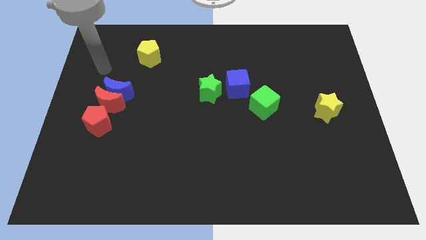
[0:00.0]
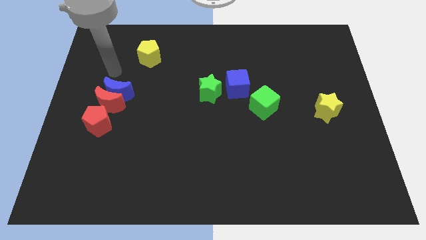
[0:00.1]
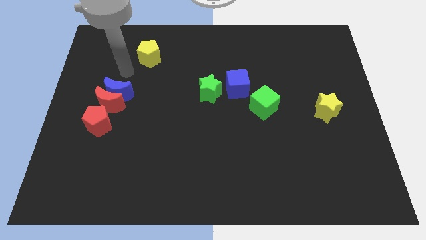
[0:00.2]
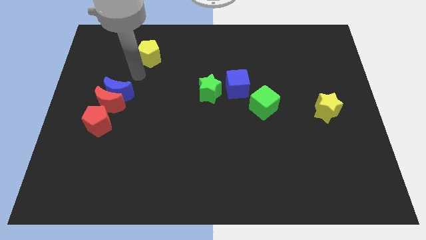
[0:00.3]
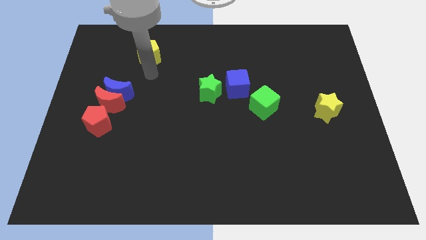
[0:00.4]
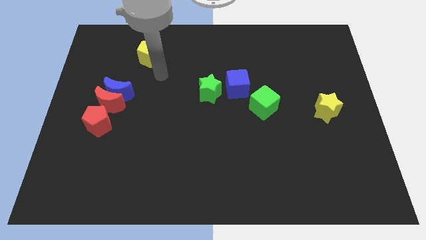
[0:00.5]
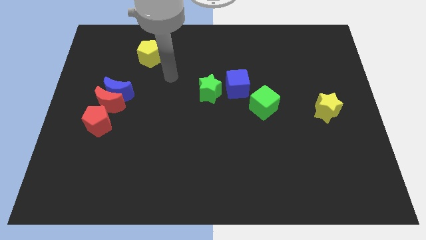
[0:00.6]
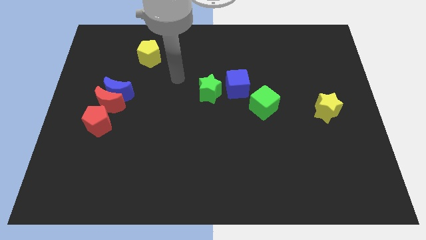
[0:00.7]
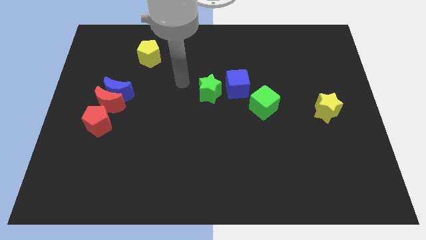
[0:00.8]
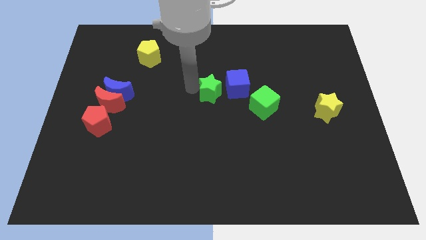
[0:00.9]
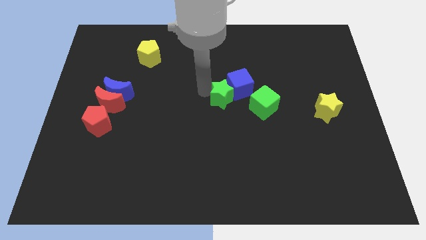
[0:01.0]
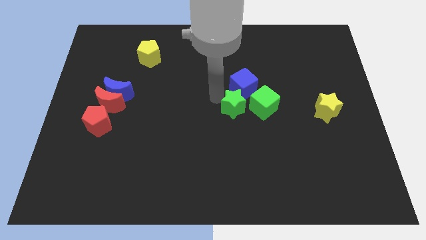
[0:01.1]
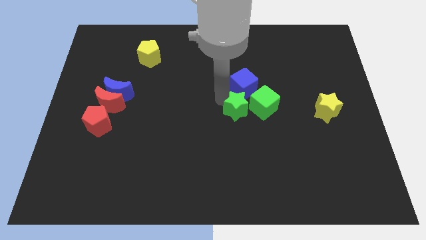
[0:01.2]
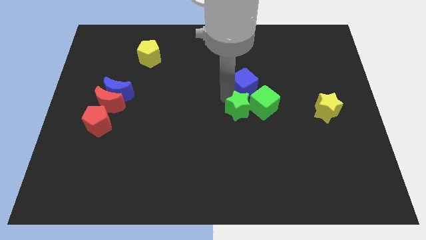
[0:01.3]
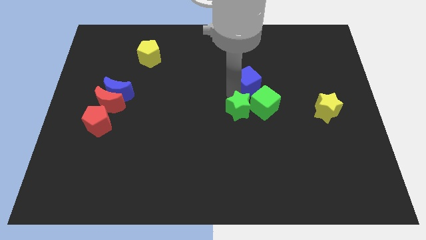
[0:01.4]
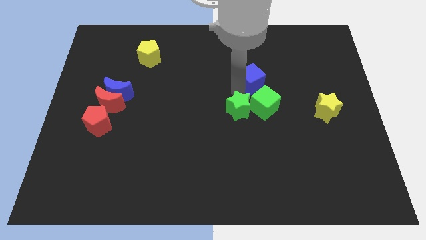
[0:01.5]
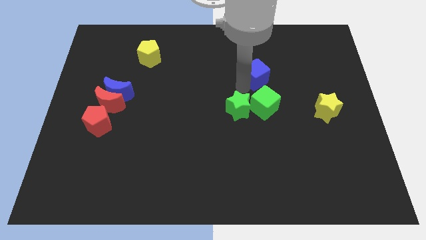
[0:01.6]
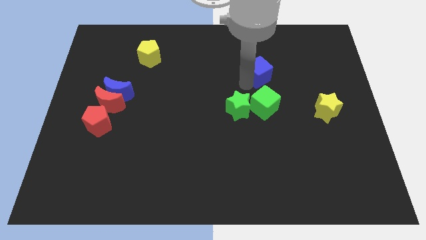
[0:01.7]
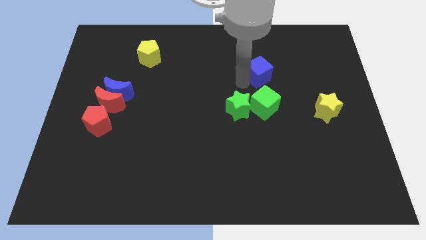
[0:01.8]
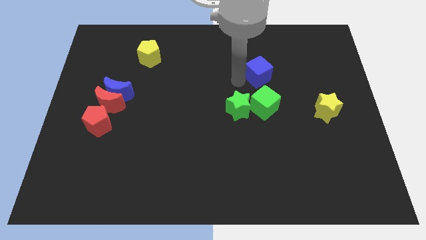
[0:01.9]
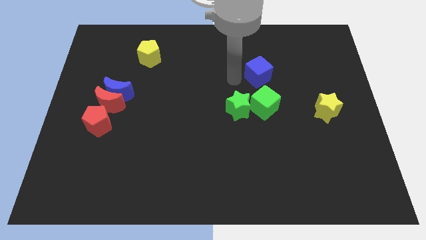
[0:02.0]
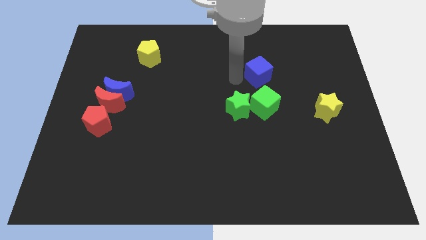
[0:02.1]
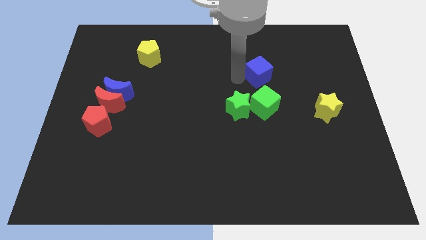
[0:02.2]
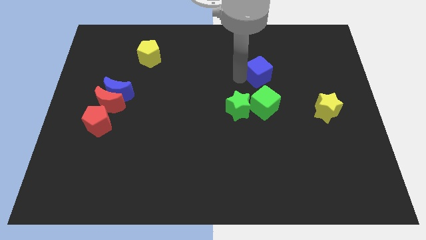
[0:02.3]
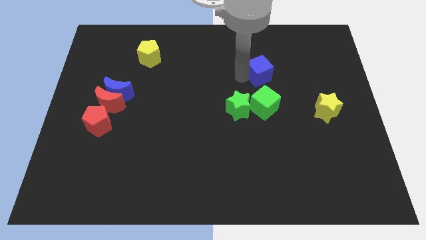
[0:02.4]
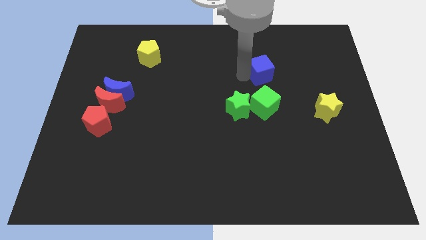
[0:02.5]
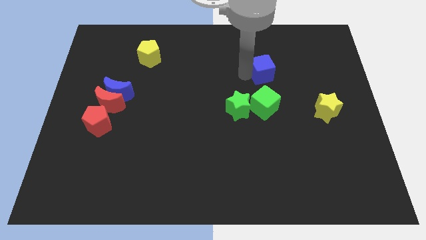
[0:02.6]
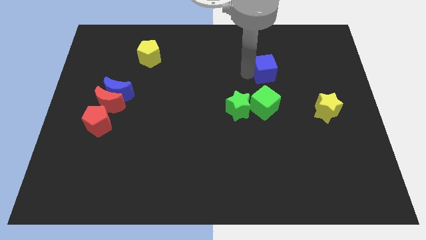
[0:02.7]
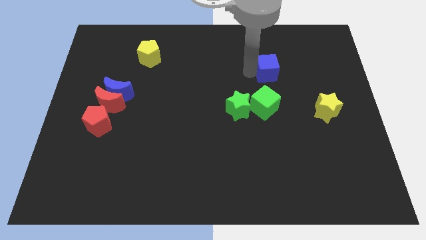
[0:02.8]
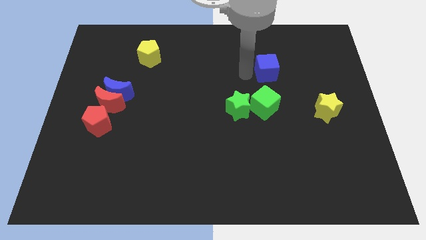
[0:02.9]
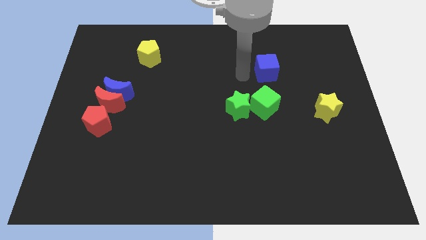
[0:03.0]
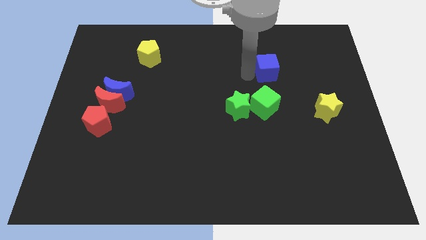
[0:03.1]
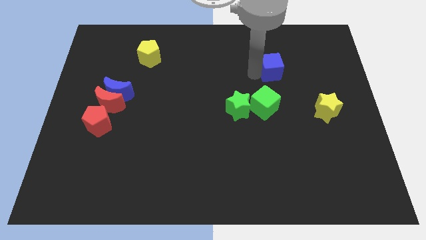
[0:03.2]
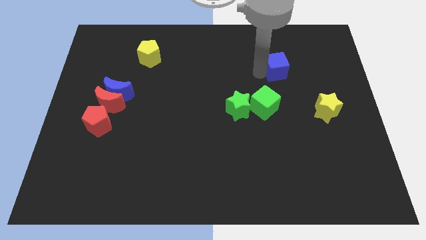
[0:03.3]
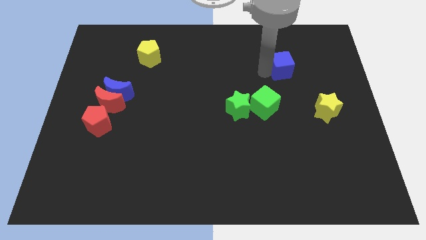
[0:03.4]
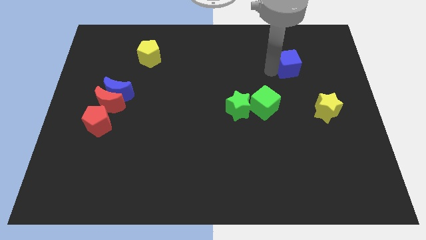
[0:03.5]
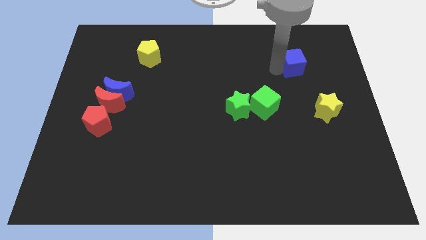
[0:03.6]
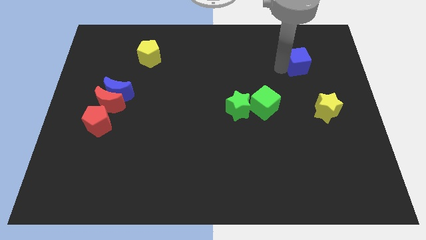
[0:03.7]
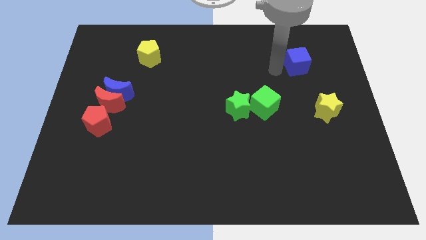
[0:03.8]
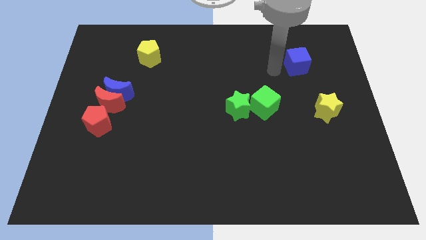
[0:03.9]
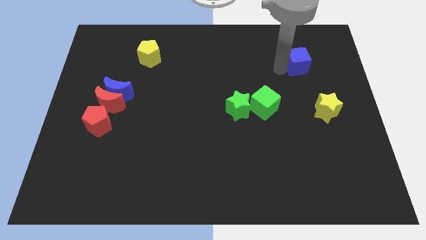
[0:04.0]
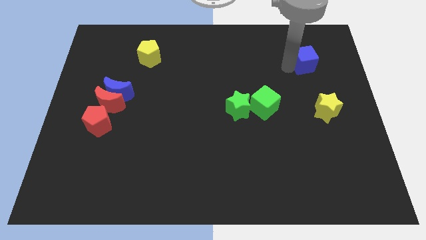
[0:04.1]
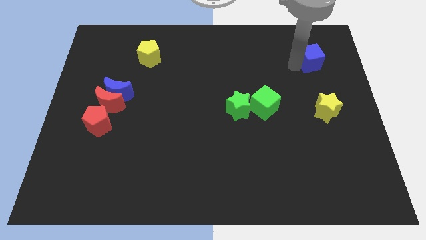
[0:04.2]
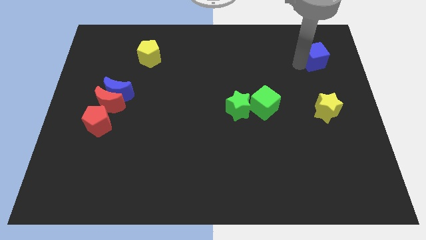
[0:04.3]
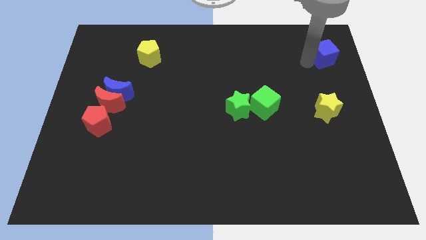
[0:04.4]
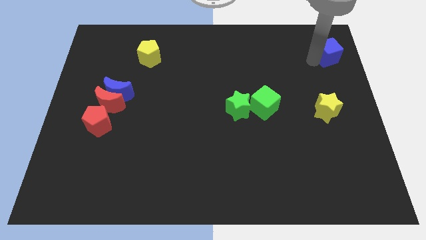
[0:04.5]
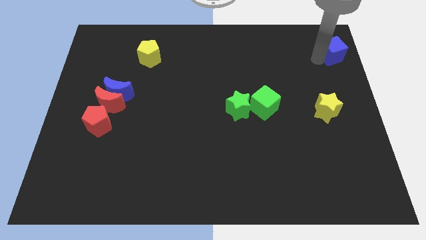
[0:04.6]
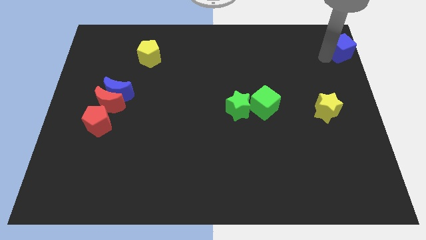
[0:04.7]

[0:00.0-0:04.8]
move the blue cube to the top right of the board

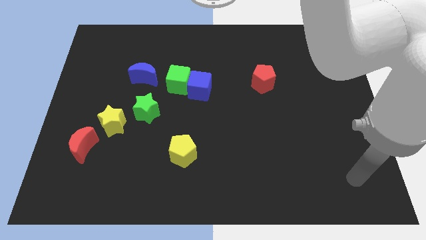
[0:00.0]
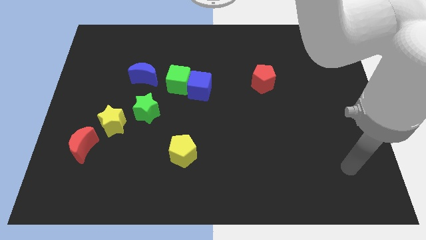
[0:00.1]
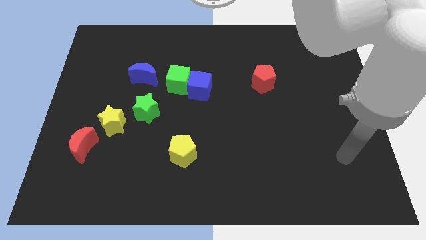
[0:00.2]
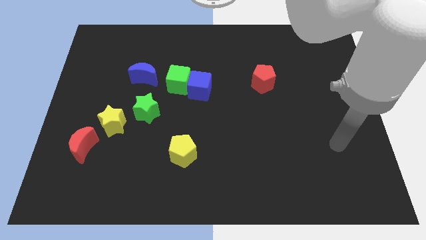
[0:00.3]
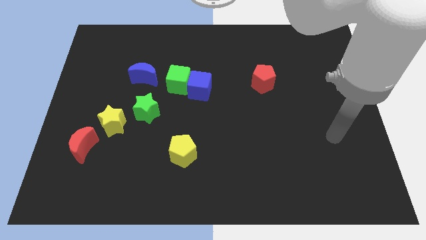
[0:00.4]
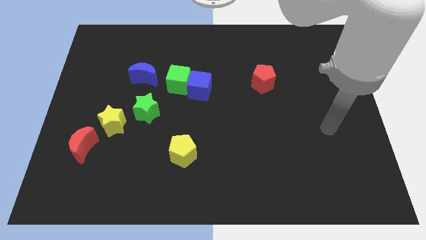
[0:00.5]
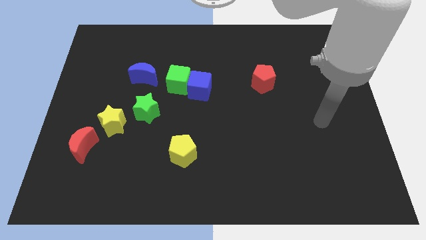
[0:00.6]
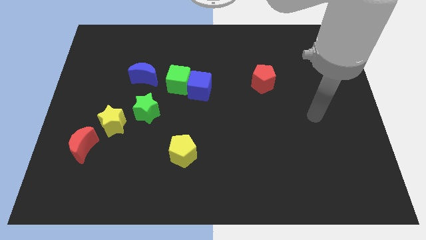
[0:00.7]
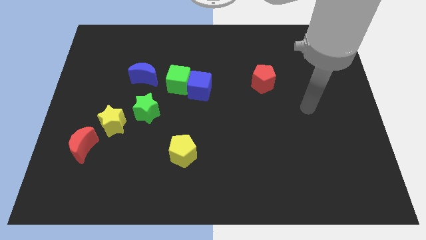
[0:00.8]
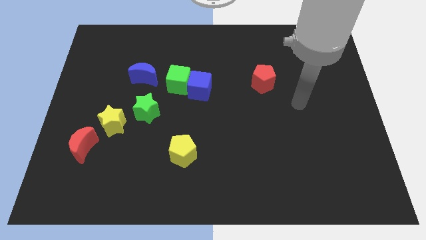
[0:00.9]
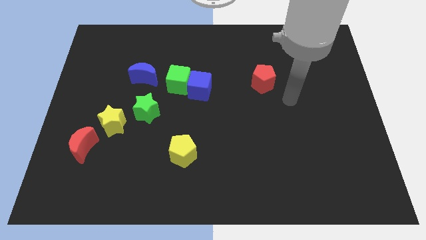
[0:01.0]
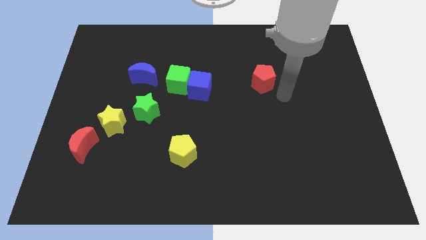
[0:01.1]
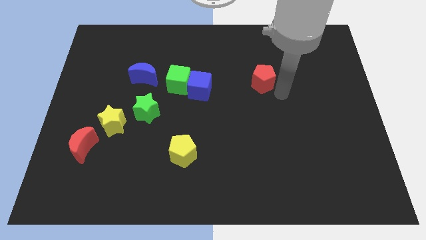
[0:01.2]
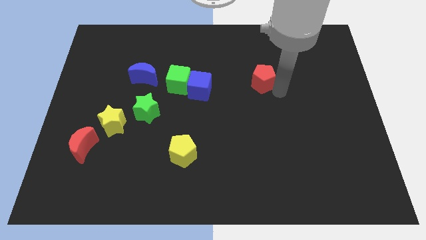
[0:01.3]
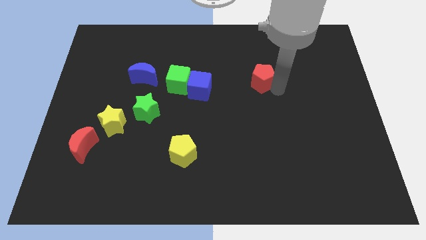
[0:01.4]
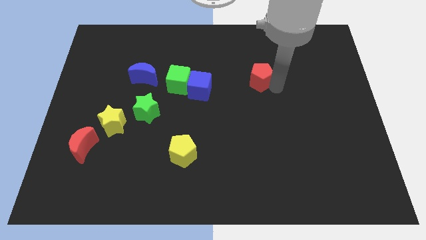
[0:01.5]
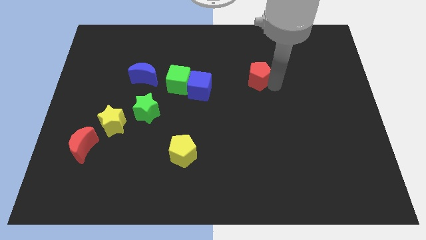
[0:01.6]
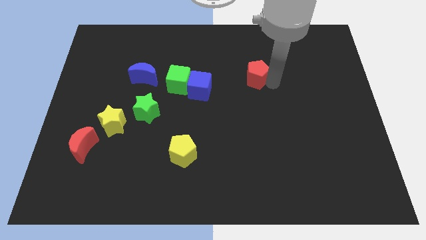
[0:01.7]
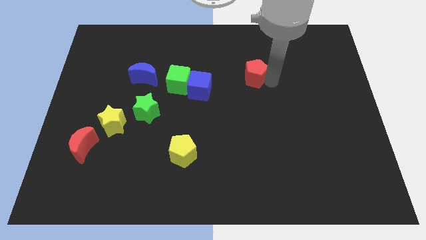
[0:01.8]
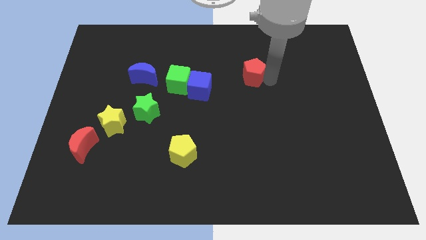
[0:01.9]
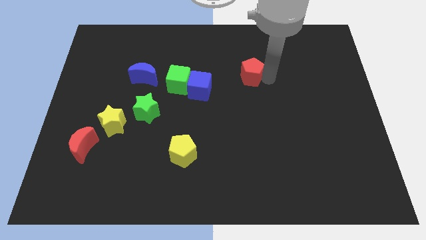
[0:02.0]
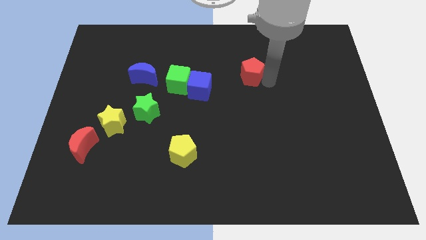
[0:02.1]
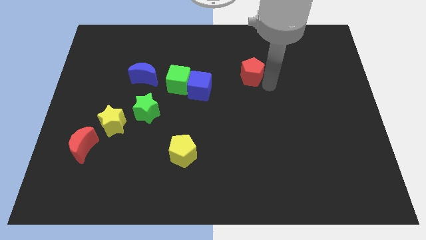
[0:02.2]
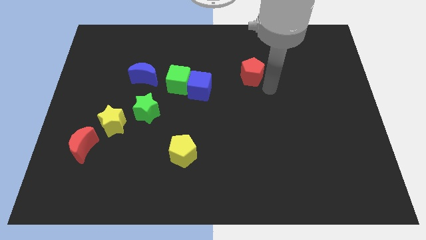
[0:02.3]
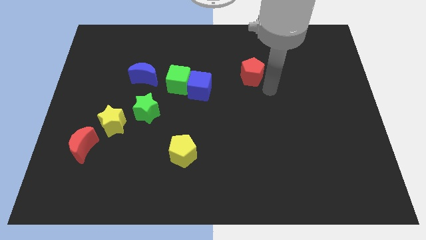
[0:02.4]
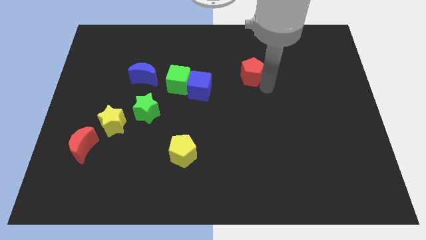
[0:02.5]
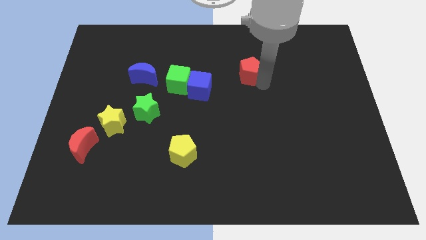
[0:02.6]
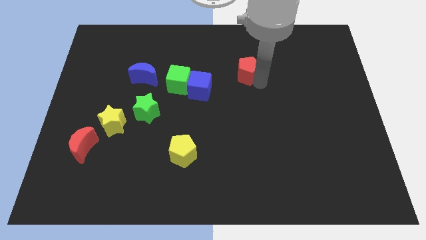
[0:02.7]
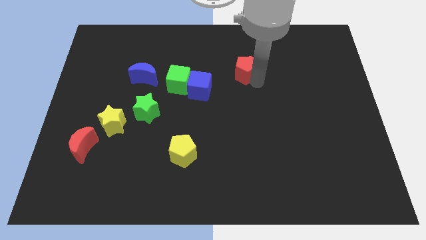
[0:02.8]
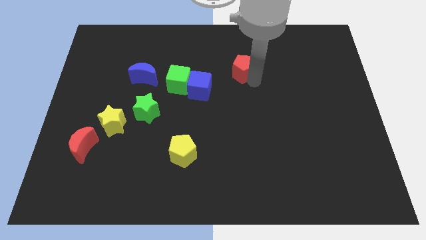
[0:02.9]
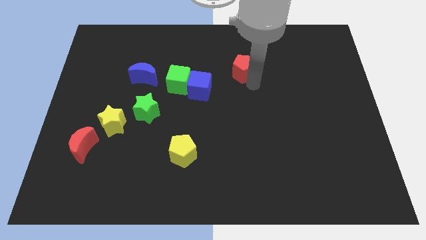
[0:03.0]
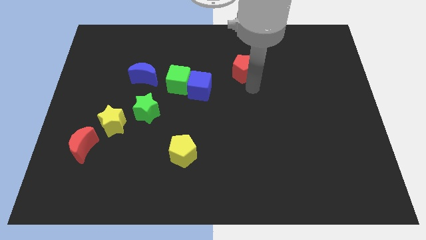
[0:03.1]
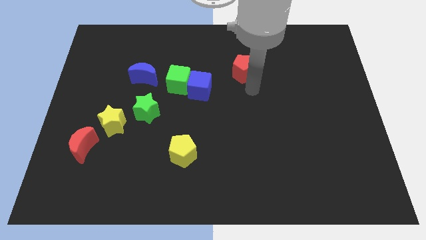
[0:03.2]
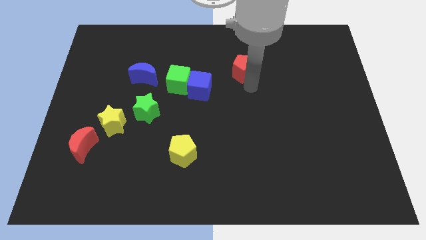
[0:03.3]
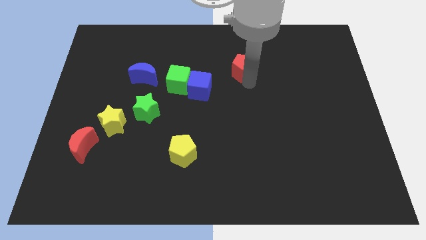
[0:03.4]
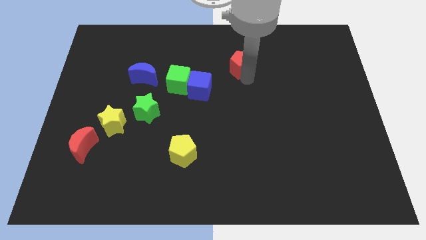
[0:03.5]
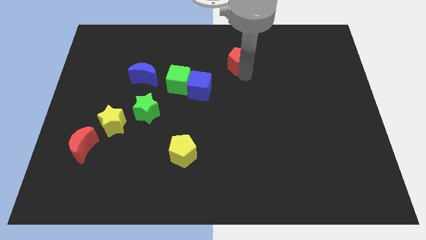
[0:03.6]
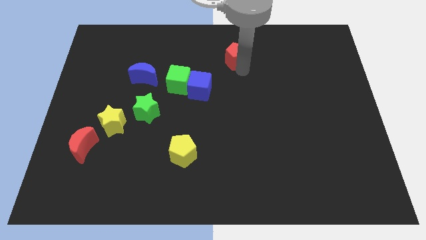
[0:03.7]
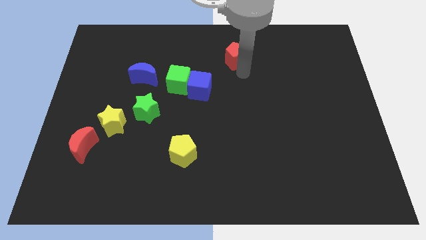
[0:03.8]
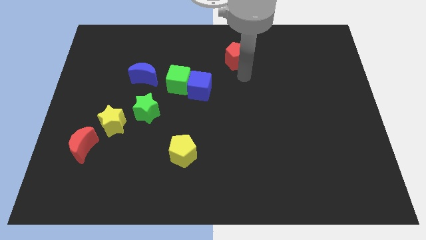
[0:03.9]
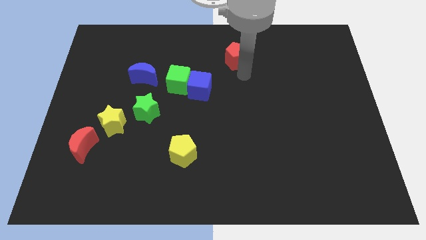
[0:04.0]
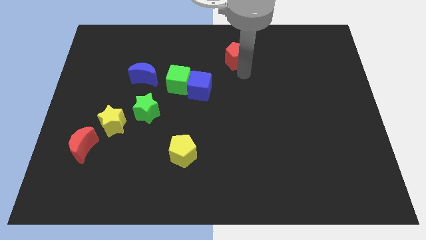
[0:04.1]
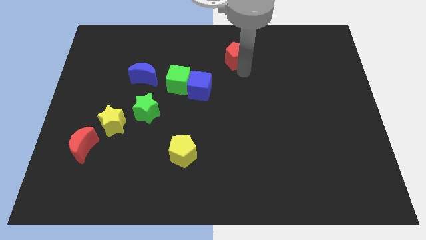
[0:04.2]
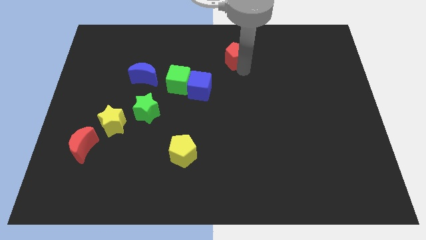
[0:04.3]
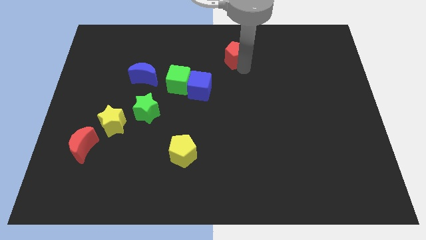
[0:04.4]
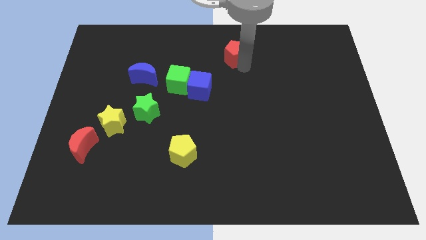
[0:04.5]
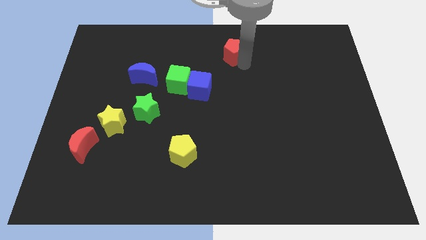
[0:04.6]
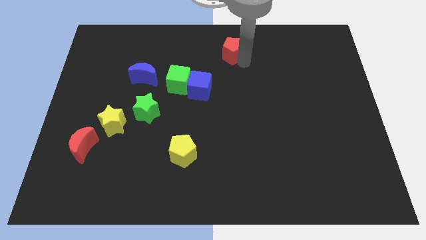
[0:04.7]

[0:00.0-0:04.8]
slide the red pentagon to the top side
